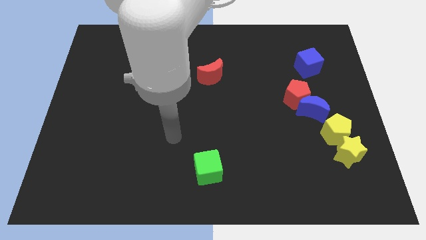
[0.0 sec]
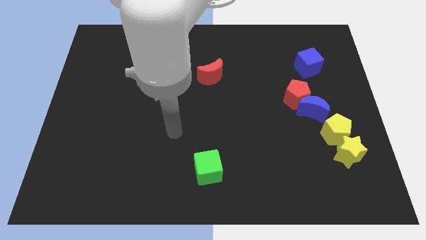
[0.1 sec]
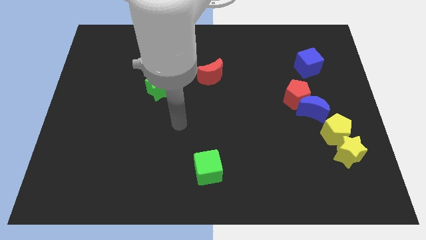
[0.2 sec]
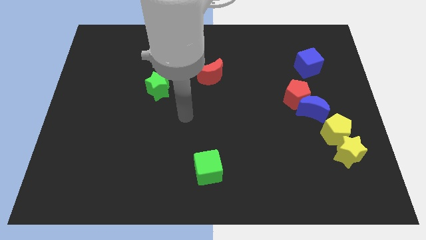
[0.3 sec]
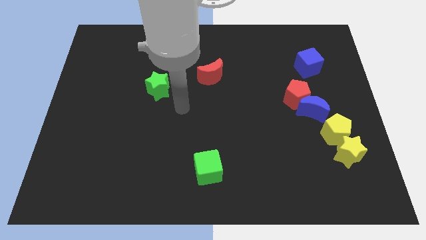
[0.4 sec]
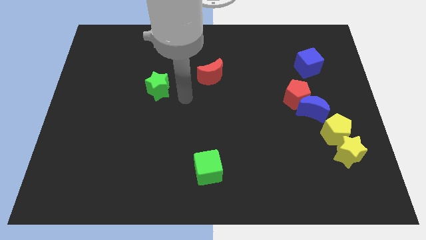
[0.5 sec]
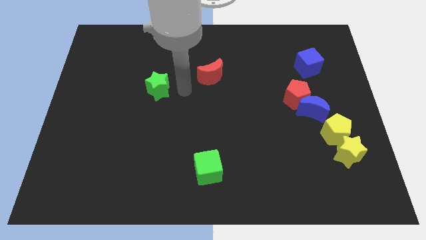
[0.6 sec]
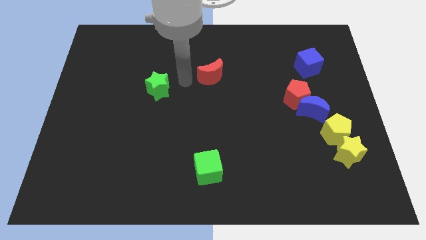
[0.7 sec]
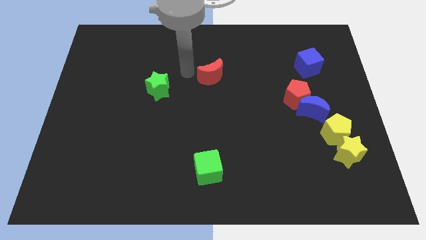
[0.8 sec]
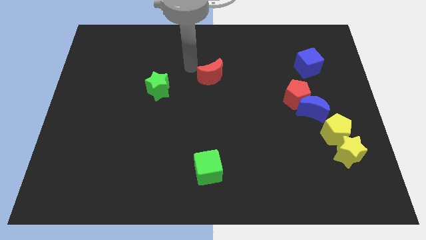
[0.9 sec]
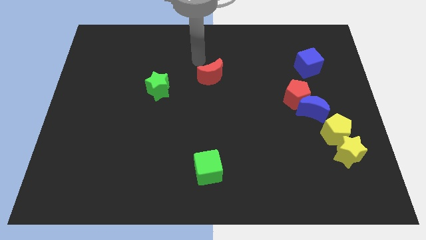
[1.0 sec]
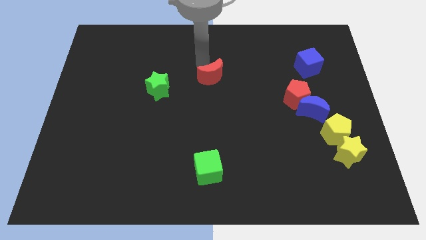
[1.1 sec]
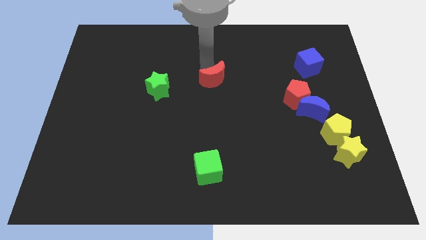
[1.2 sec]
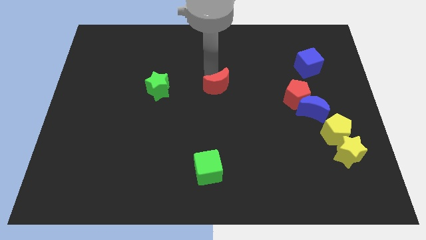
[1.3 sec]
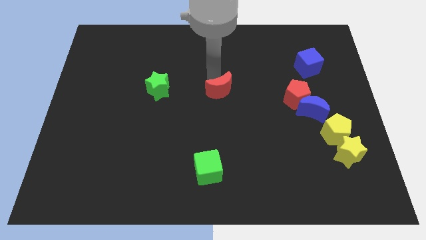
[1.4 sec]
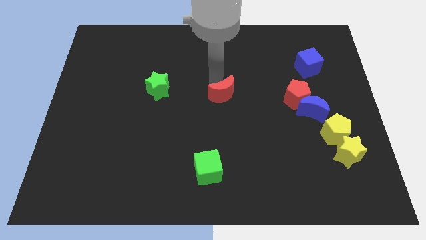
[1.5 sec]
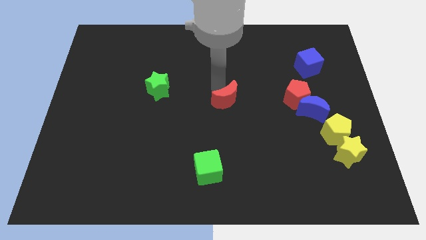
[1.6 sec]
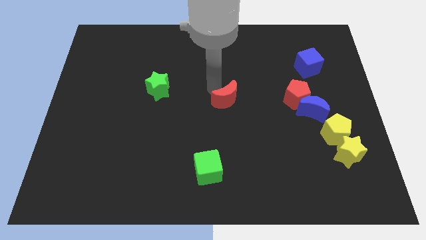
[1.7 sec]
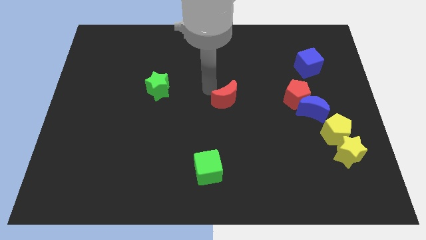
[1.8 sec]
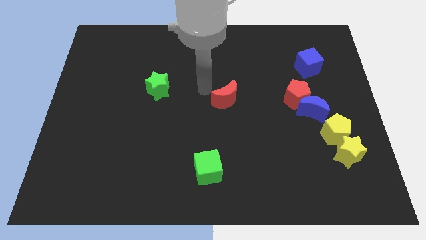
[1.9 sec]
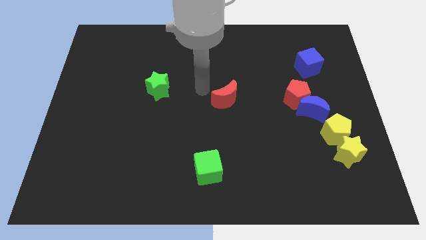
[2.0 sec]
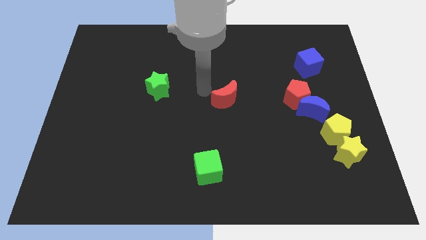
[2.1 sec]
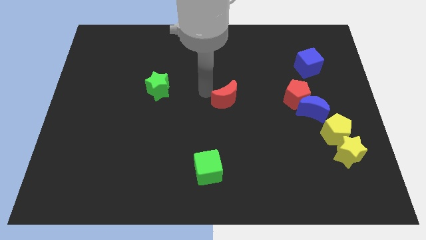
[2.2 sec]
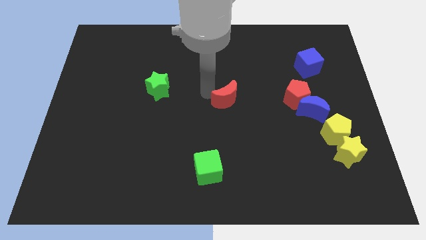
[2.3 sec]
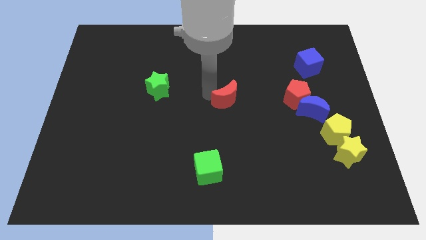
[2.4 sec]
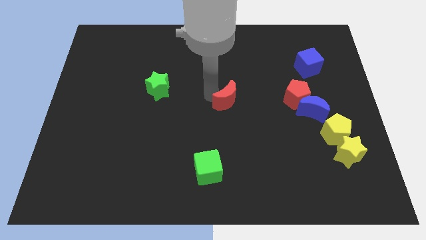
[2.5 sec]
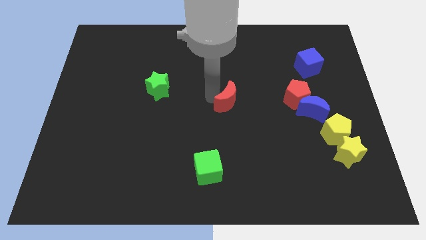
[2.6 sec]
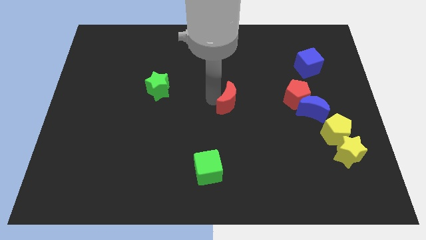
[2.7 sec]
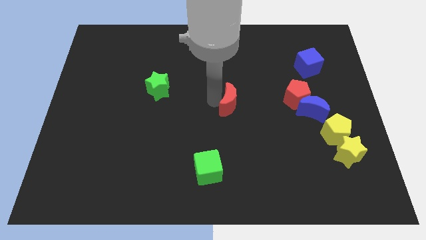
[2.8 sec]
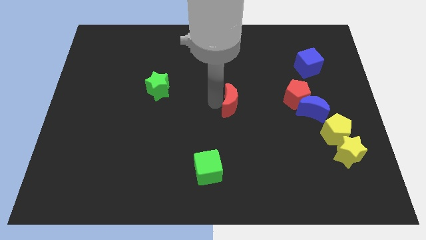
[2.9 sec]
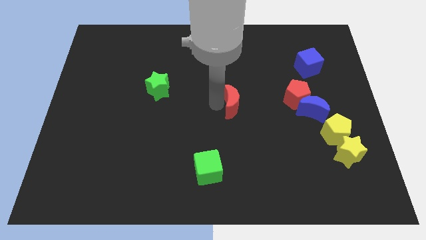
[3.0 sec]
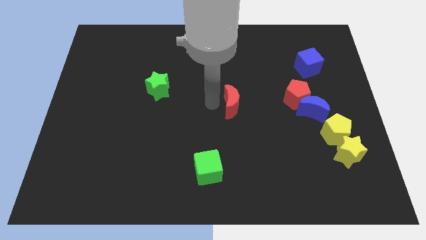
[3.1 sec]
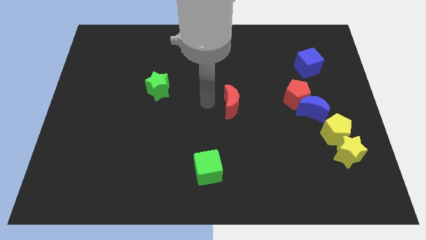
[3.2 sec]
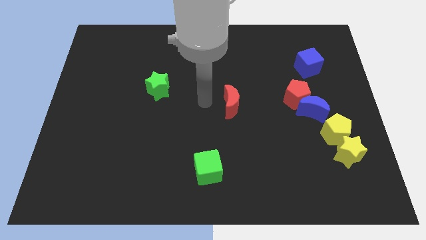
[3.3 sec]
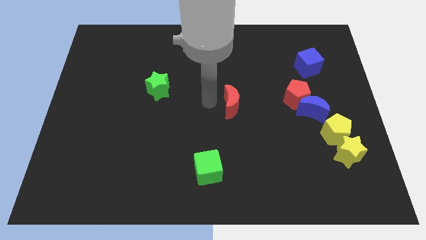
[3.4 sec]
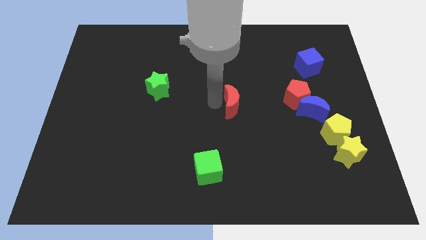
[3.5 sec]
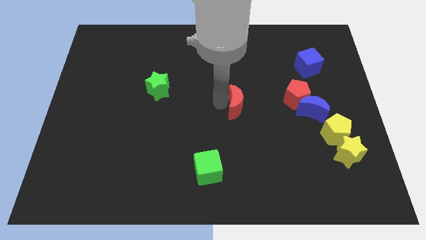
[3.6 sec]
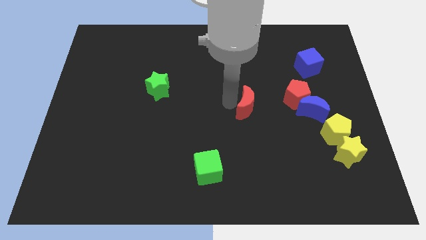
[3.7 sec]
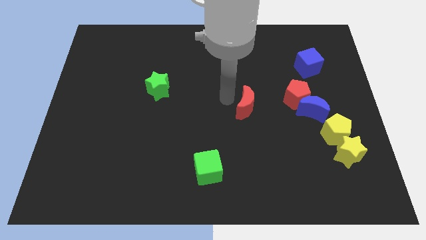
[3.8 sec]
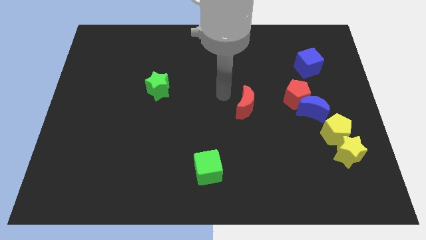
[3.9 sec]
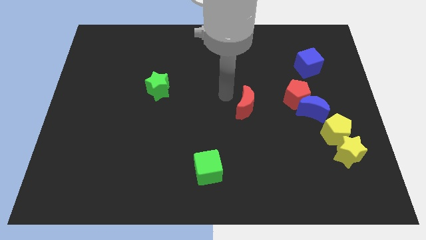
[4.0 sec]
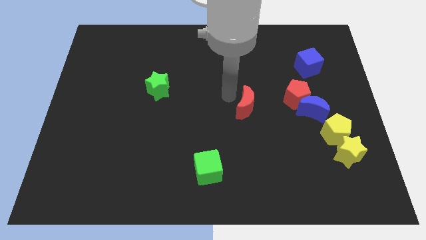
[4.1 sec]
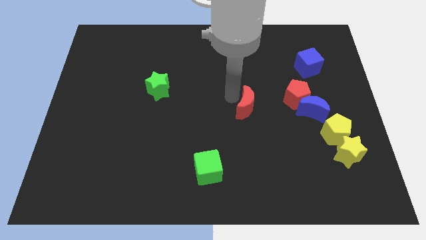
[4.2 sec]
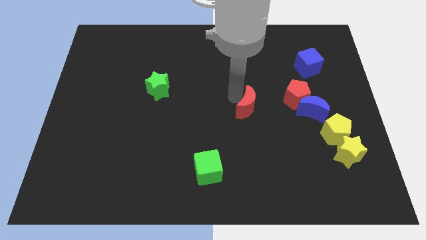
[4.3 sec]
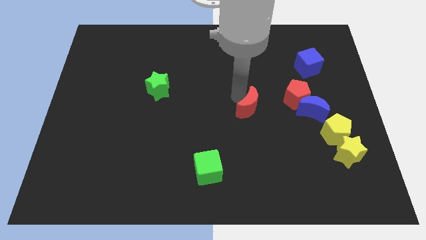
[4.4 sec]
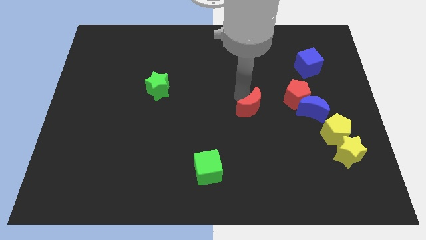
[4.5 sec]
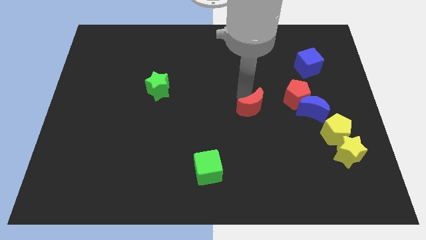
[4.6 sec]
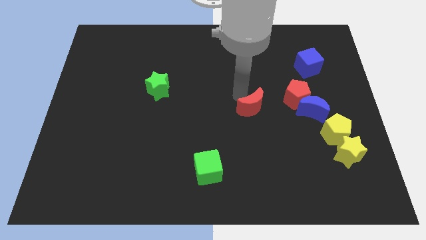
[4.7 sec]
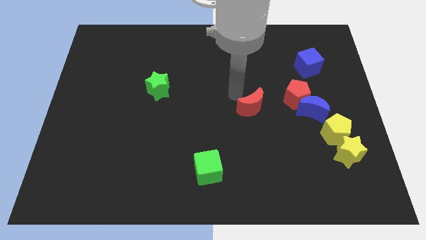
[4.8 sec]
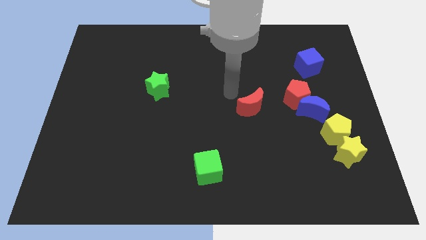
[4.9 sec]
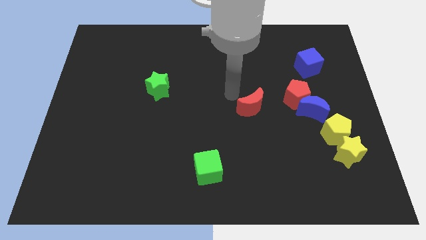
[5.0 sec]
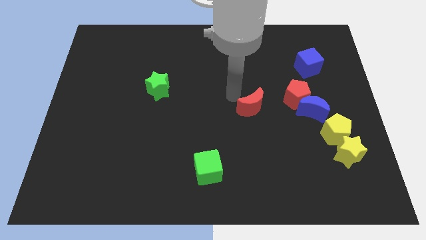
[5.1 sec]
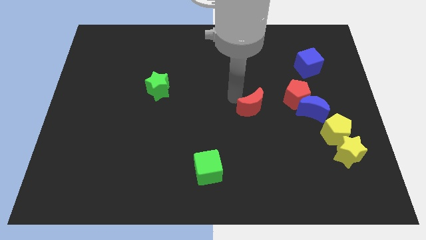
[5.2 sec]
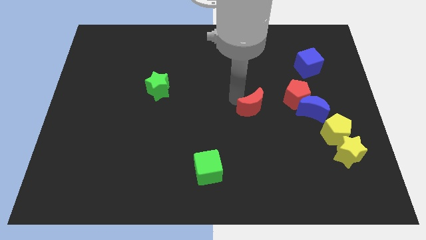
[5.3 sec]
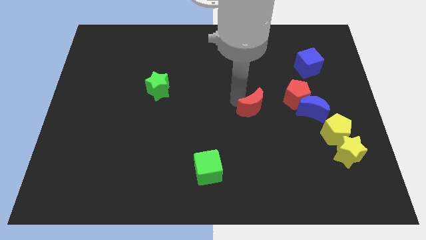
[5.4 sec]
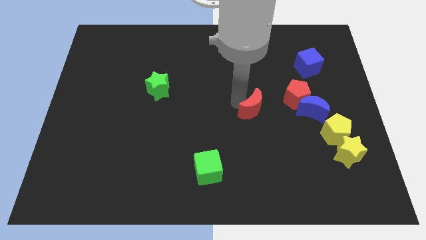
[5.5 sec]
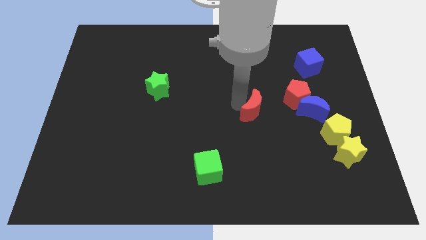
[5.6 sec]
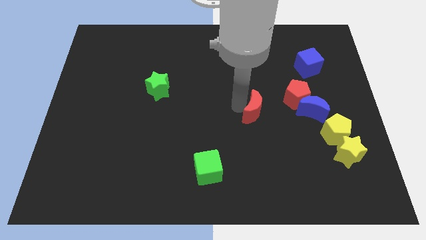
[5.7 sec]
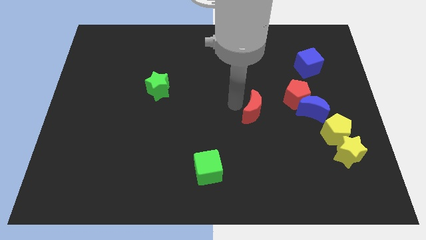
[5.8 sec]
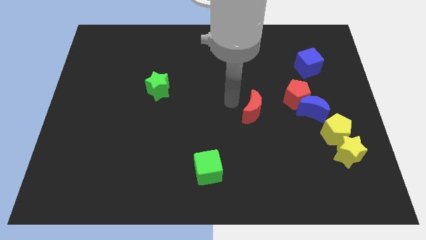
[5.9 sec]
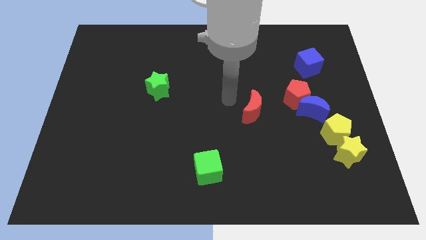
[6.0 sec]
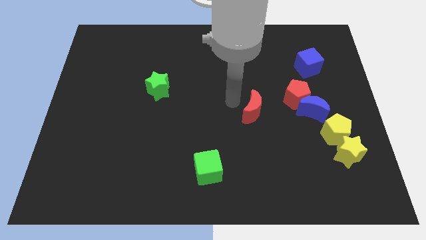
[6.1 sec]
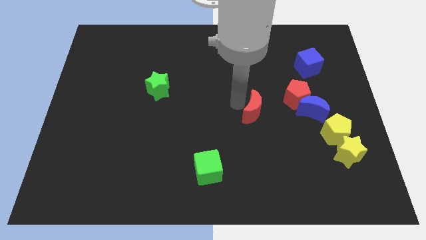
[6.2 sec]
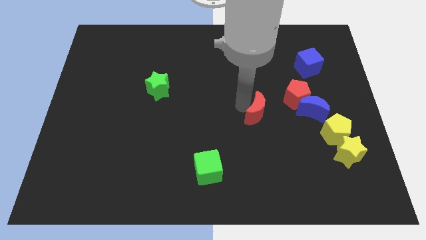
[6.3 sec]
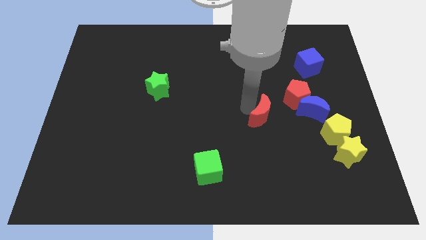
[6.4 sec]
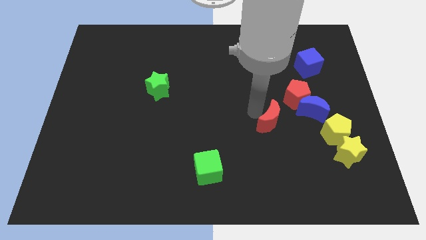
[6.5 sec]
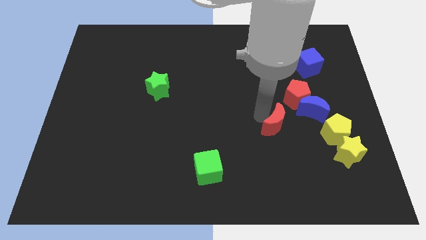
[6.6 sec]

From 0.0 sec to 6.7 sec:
put the red moon to the bottom left of the blue moon

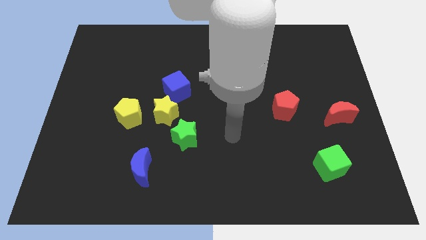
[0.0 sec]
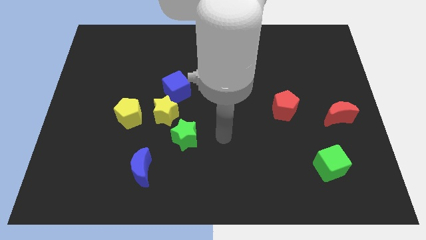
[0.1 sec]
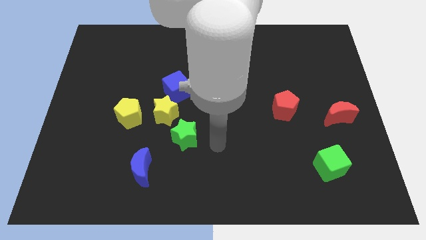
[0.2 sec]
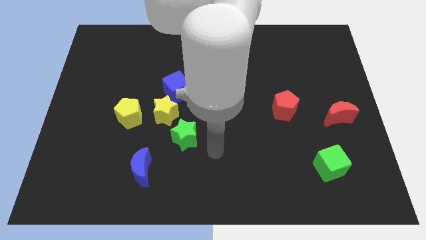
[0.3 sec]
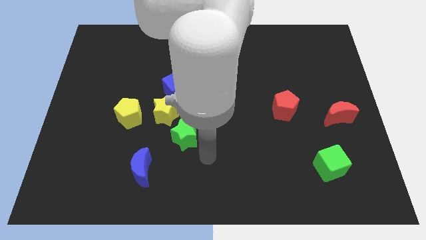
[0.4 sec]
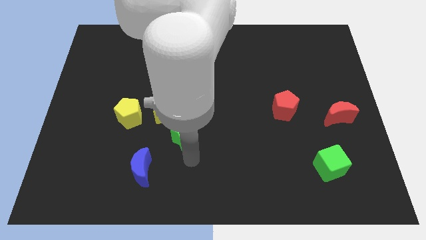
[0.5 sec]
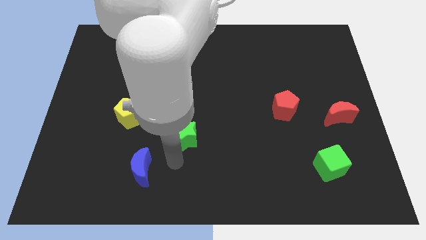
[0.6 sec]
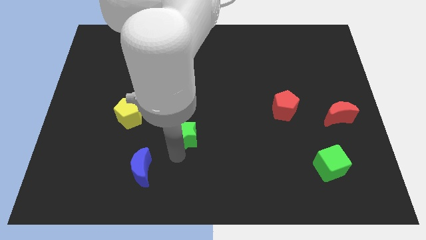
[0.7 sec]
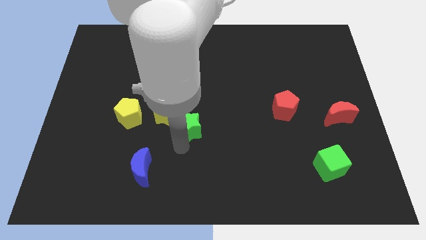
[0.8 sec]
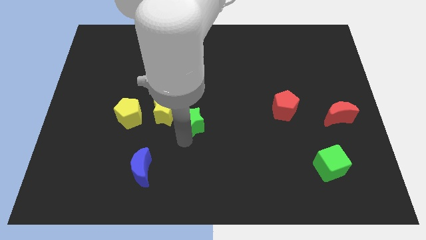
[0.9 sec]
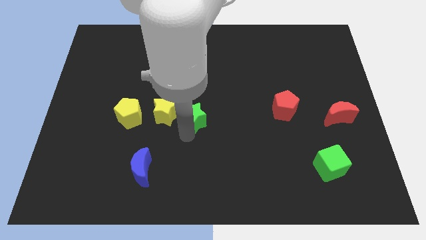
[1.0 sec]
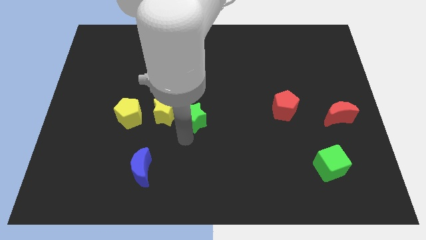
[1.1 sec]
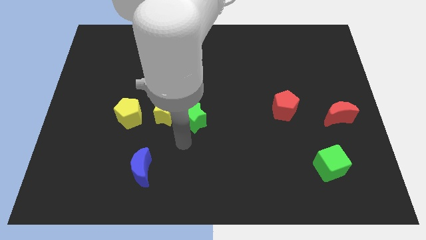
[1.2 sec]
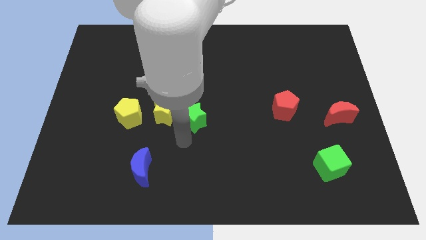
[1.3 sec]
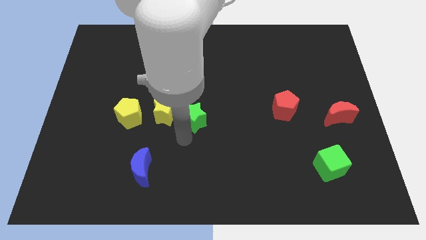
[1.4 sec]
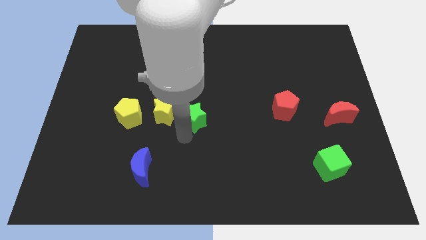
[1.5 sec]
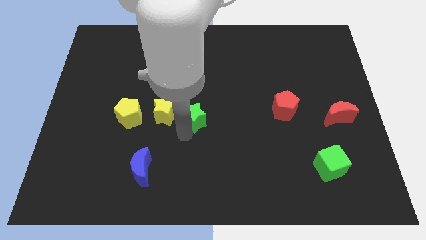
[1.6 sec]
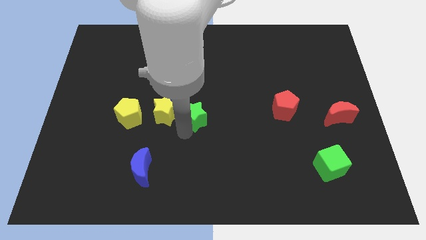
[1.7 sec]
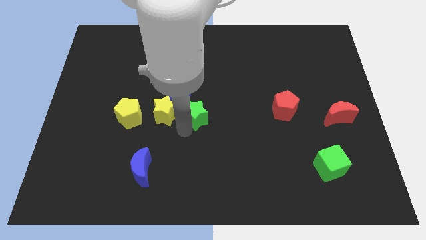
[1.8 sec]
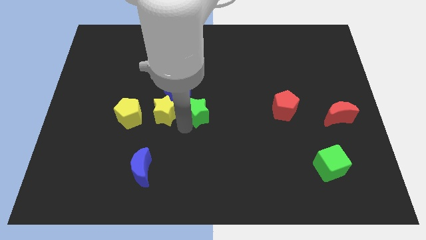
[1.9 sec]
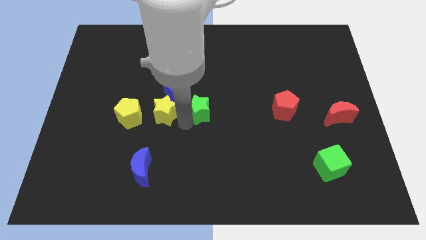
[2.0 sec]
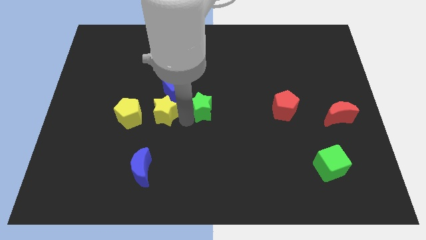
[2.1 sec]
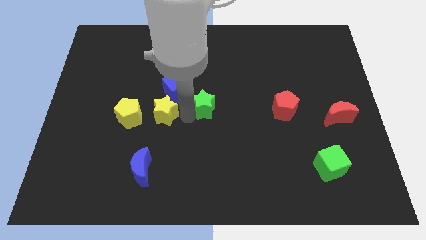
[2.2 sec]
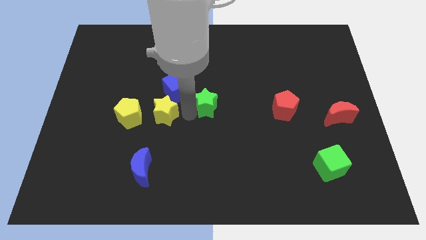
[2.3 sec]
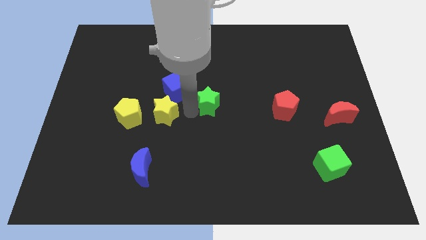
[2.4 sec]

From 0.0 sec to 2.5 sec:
put the green star to the right side of the blue cube
